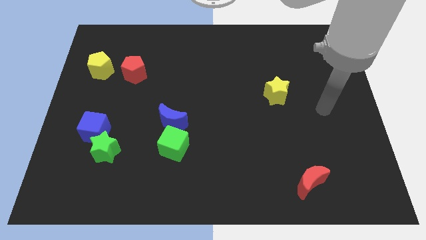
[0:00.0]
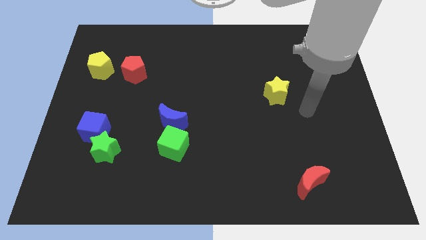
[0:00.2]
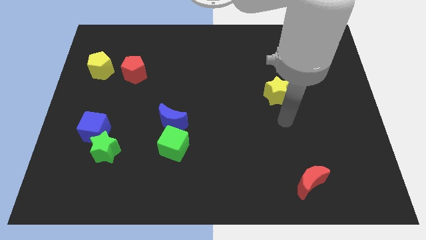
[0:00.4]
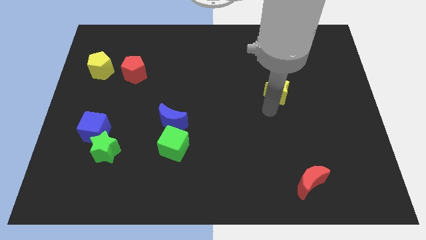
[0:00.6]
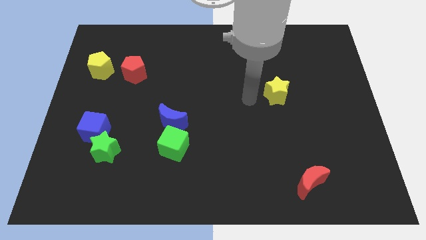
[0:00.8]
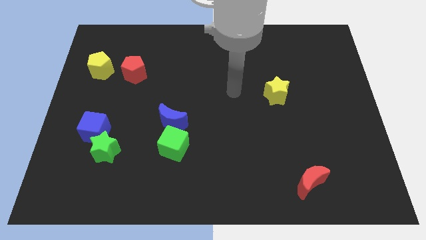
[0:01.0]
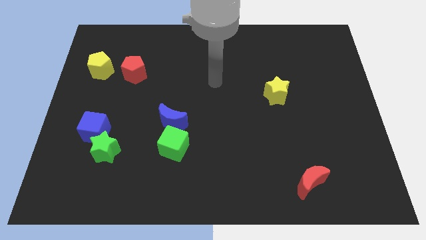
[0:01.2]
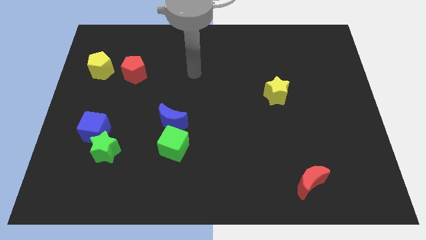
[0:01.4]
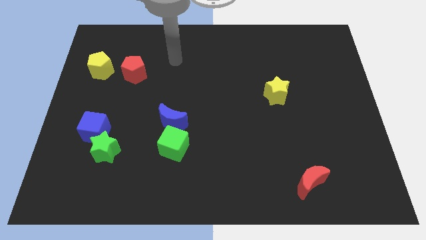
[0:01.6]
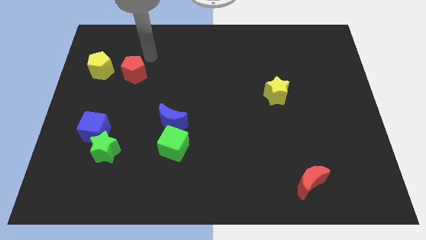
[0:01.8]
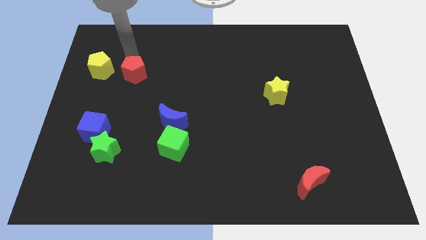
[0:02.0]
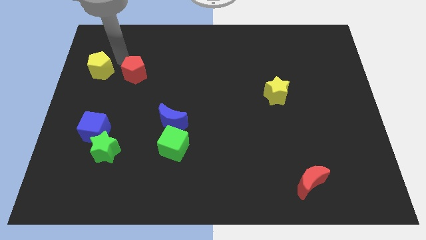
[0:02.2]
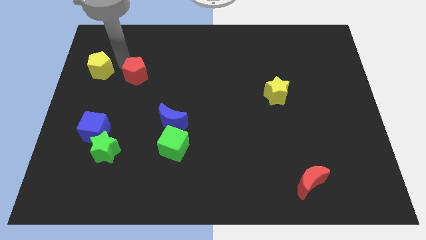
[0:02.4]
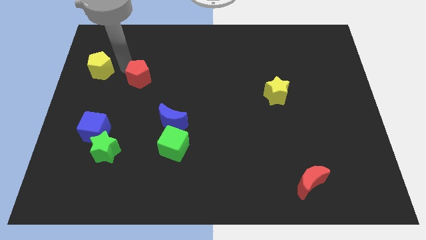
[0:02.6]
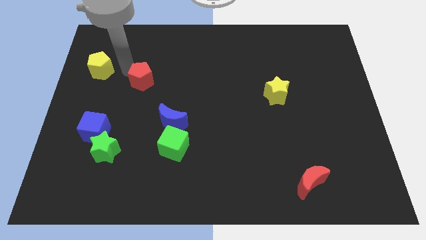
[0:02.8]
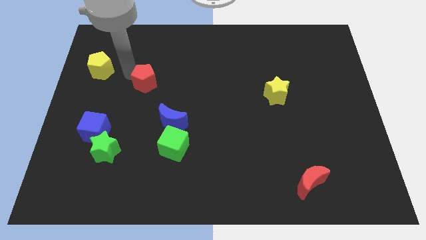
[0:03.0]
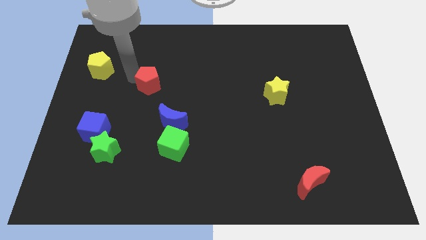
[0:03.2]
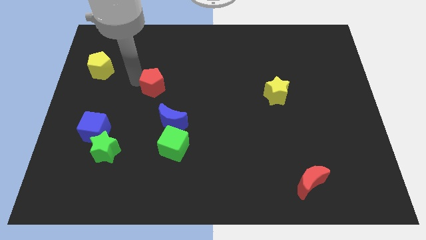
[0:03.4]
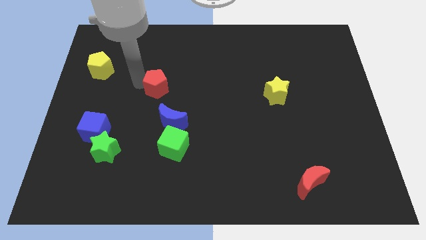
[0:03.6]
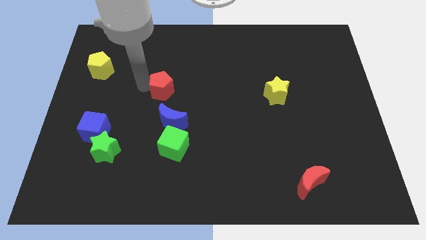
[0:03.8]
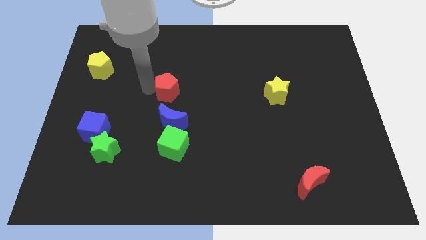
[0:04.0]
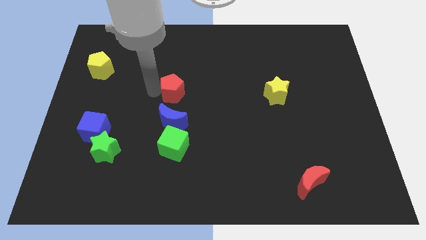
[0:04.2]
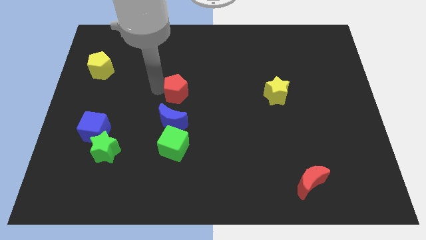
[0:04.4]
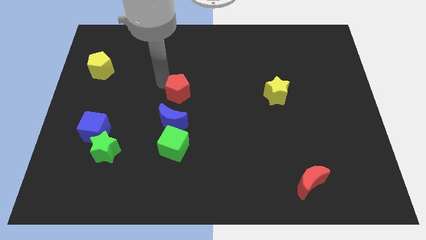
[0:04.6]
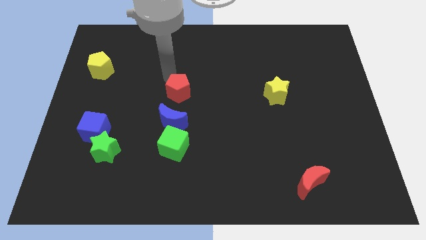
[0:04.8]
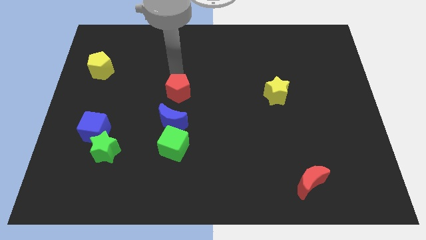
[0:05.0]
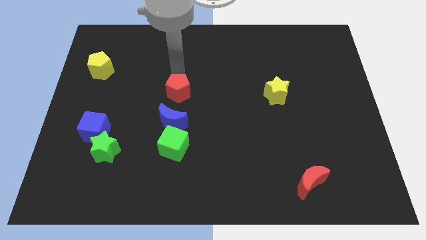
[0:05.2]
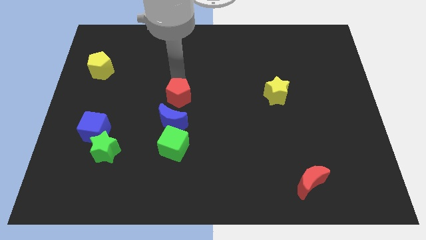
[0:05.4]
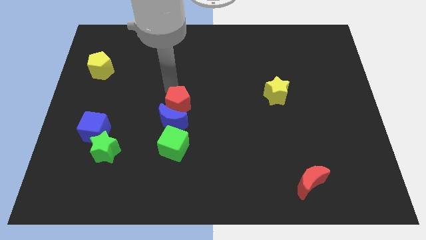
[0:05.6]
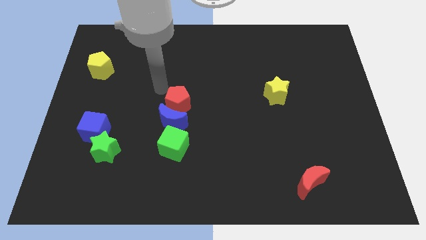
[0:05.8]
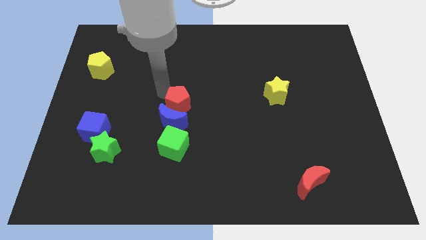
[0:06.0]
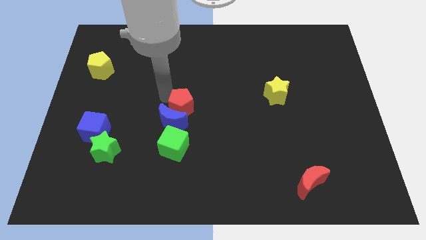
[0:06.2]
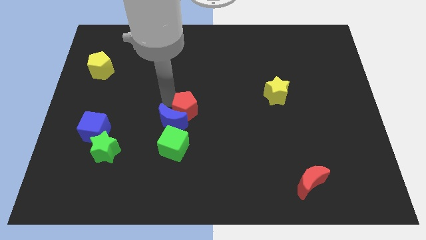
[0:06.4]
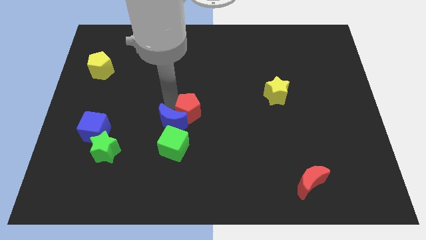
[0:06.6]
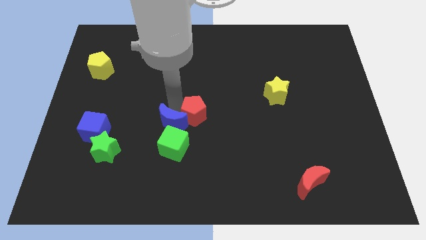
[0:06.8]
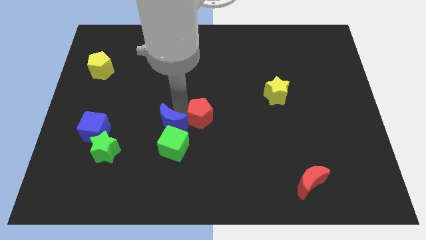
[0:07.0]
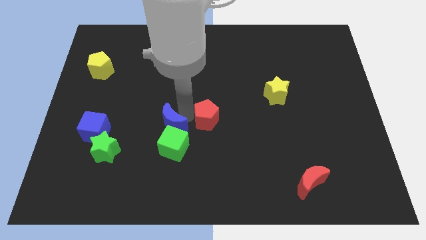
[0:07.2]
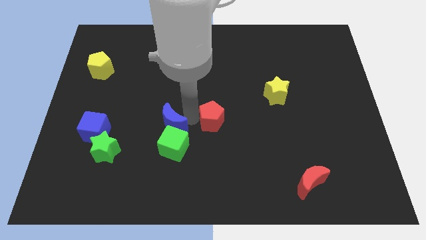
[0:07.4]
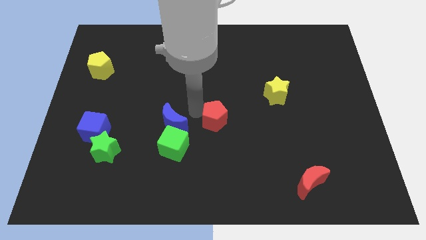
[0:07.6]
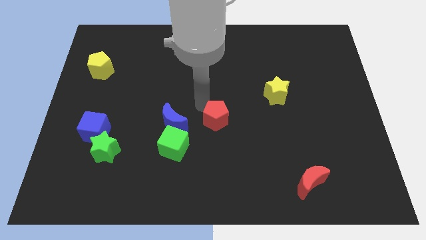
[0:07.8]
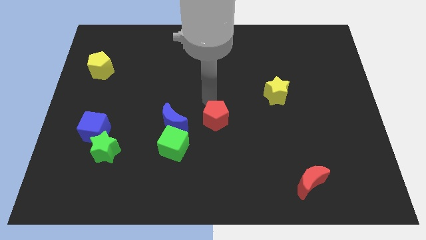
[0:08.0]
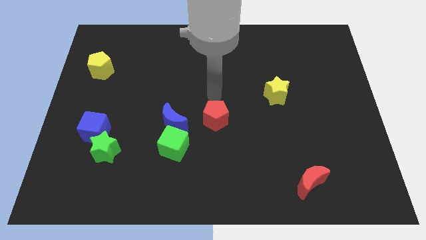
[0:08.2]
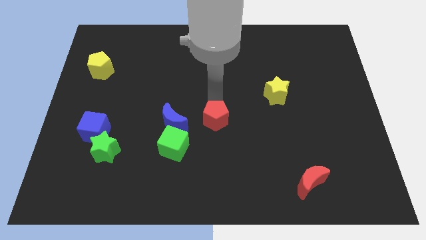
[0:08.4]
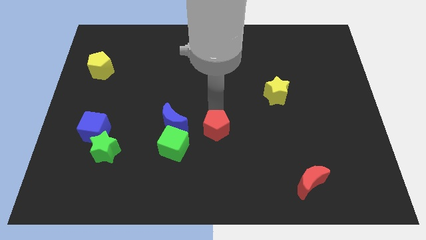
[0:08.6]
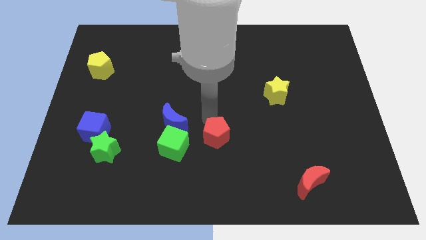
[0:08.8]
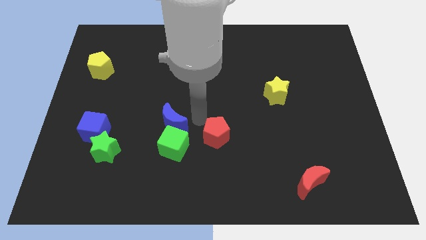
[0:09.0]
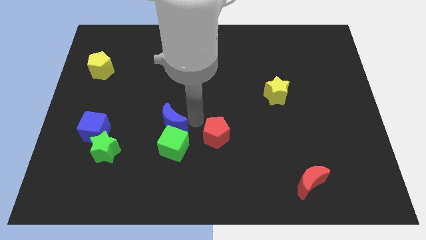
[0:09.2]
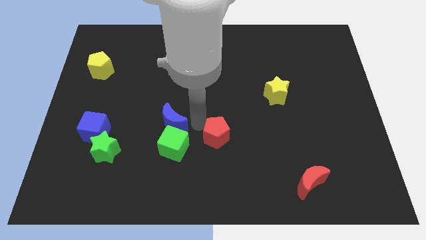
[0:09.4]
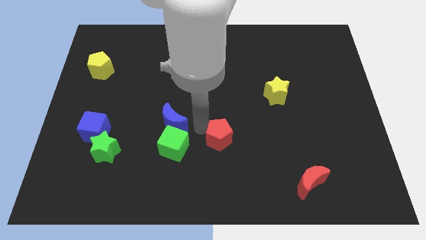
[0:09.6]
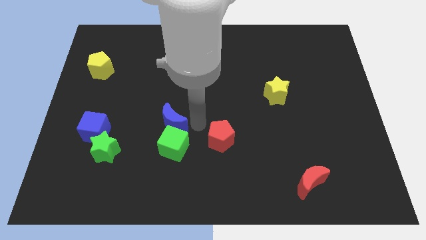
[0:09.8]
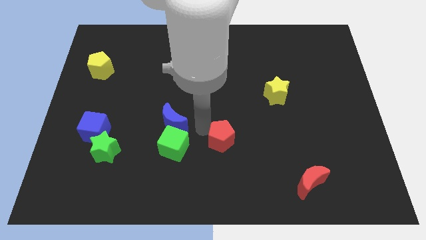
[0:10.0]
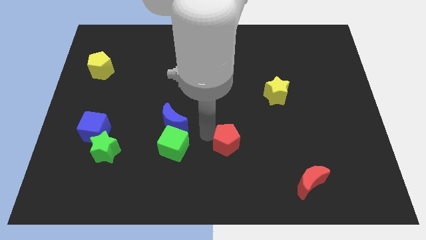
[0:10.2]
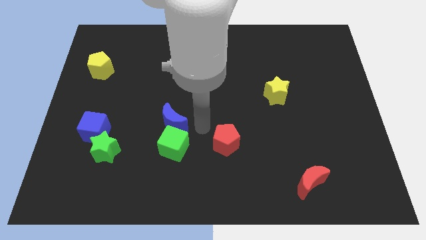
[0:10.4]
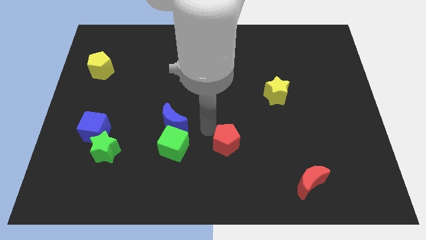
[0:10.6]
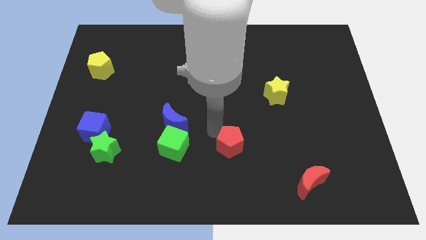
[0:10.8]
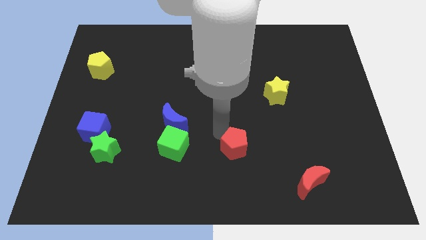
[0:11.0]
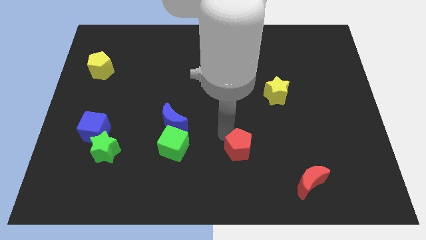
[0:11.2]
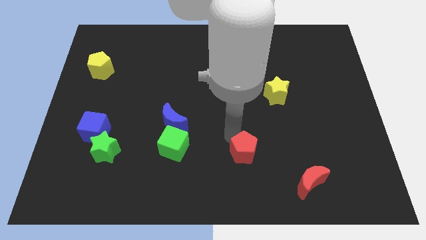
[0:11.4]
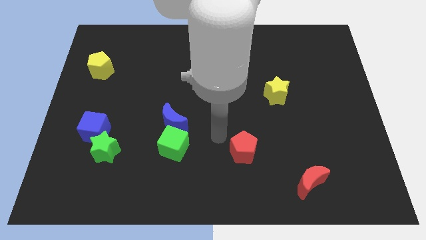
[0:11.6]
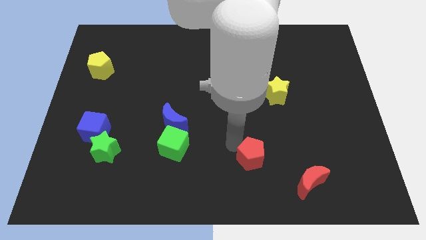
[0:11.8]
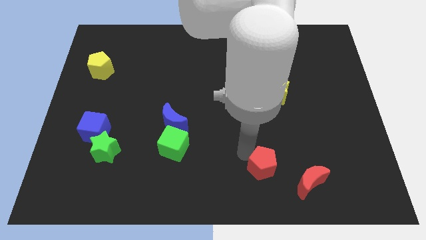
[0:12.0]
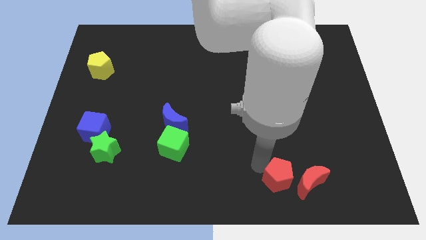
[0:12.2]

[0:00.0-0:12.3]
move the red pentagon next to the red moon

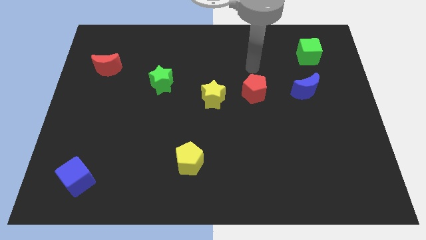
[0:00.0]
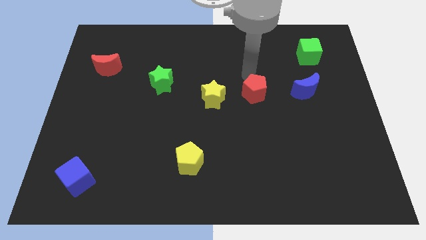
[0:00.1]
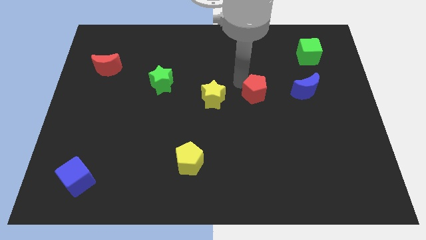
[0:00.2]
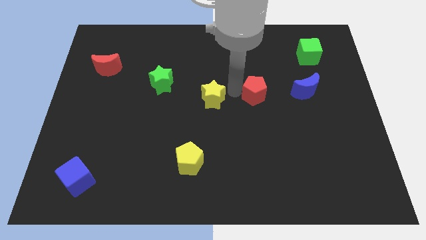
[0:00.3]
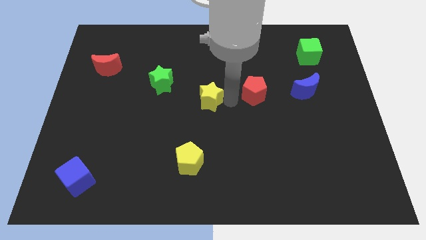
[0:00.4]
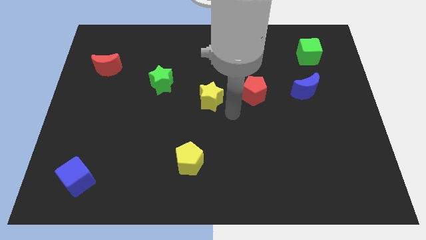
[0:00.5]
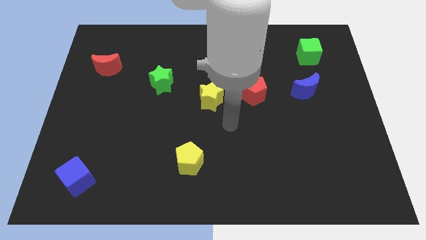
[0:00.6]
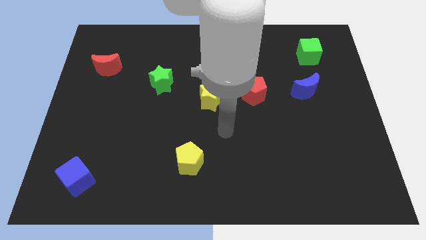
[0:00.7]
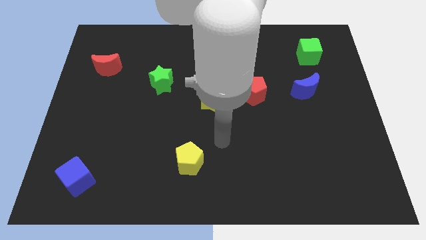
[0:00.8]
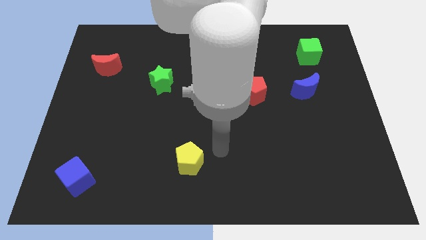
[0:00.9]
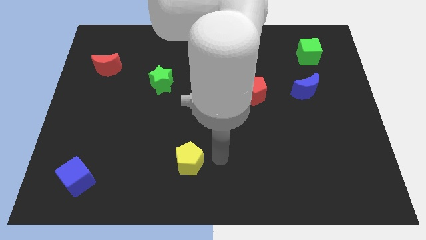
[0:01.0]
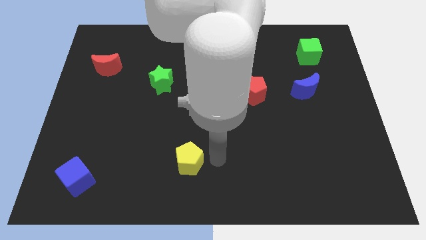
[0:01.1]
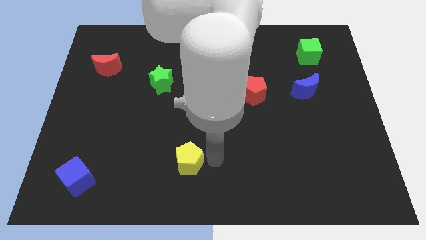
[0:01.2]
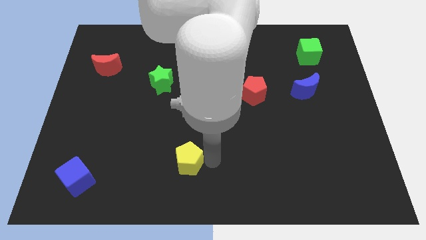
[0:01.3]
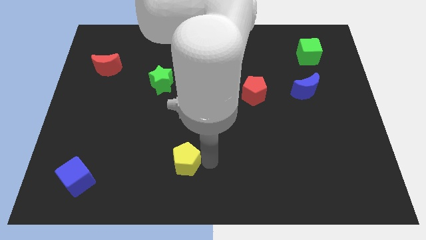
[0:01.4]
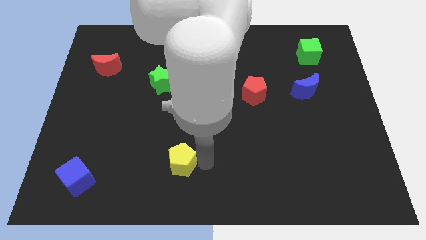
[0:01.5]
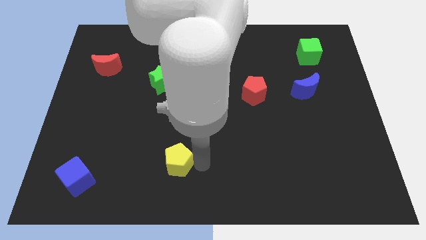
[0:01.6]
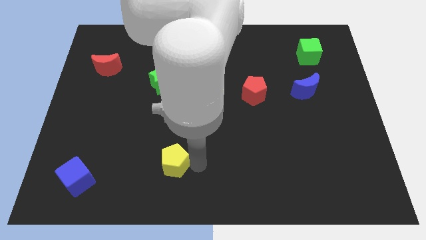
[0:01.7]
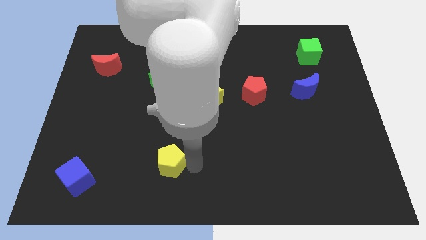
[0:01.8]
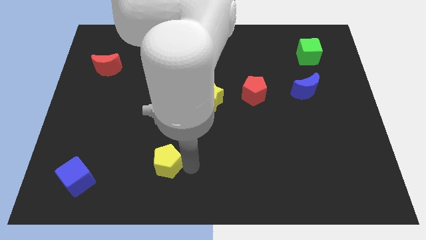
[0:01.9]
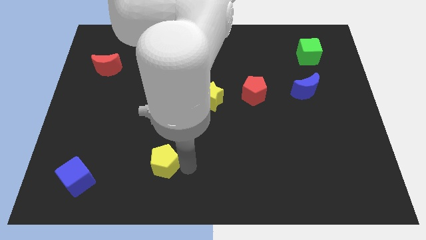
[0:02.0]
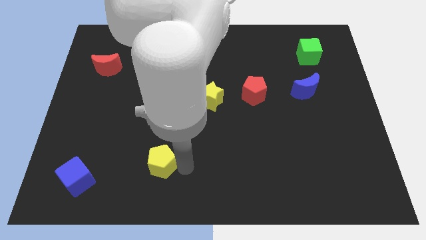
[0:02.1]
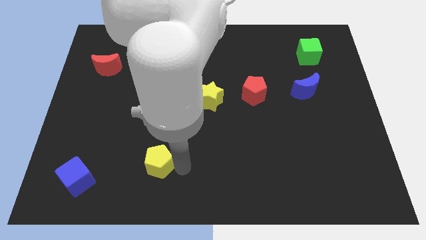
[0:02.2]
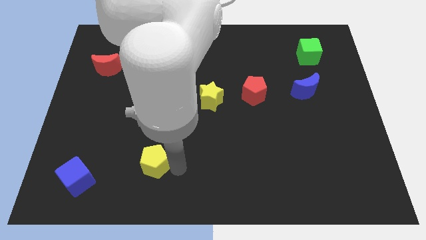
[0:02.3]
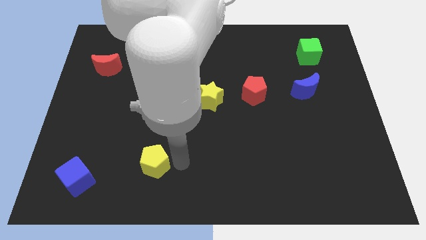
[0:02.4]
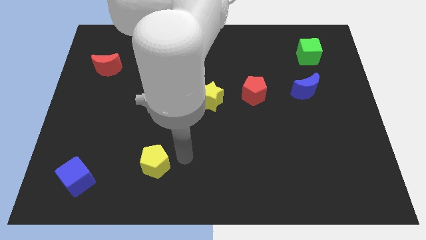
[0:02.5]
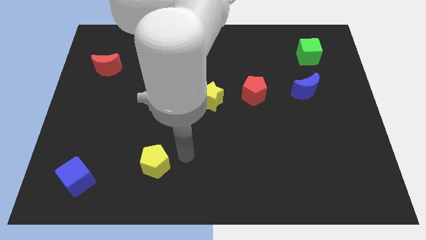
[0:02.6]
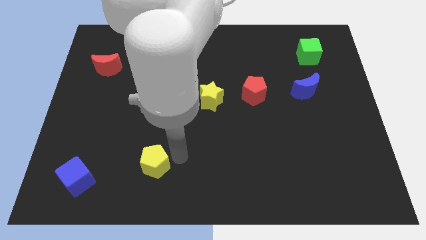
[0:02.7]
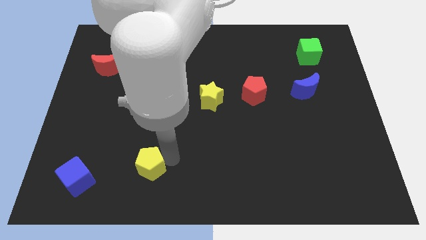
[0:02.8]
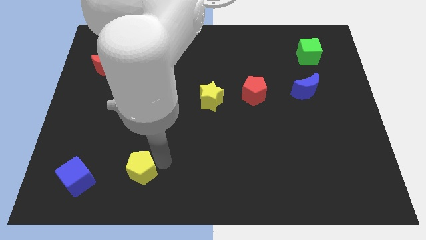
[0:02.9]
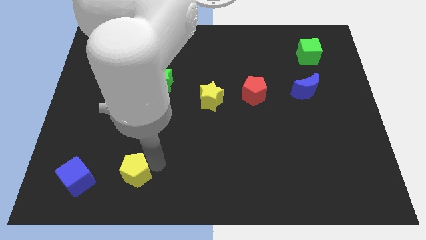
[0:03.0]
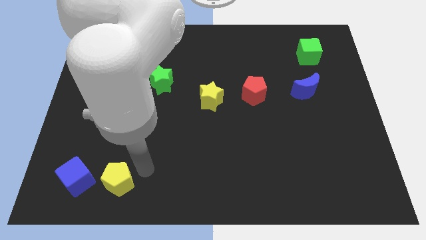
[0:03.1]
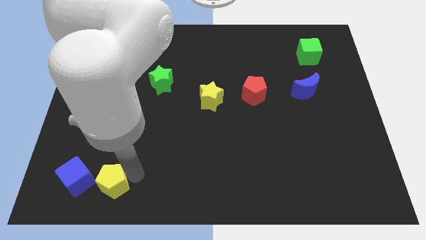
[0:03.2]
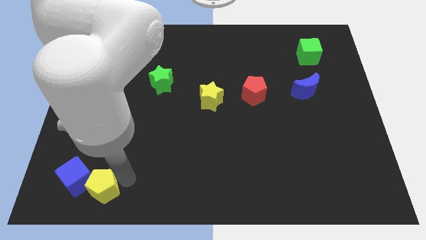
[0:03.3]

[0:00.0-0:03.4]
slide the yellow pentagon towards the blue cube
